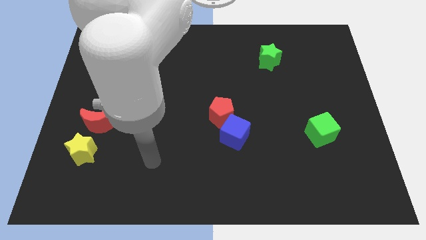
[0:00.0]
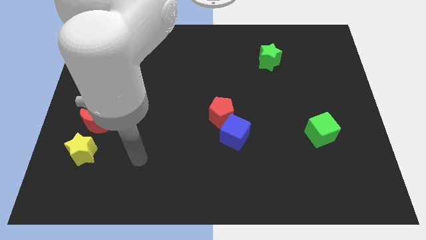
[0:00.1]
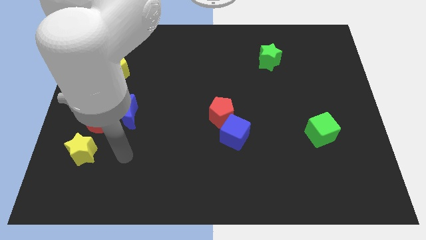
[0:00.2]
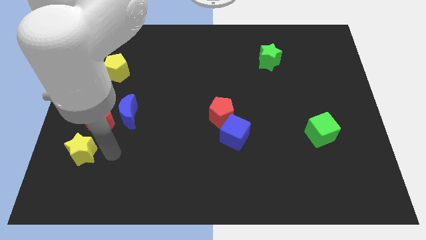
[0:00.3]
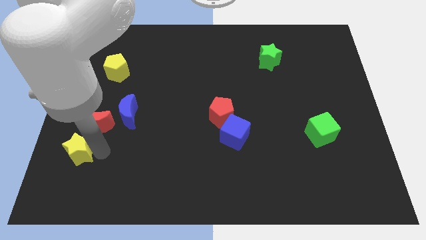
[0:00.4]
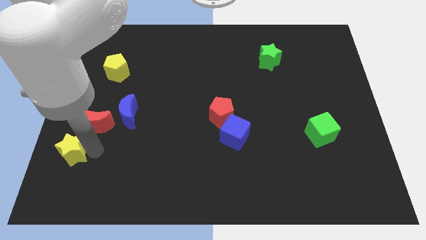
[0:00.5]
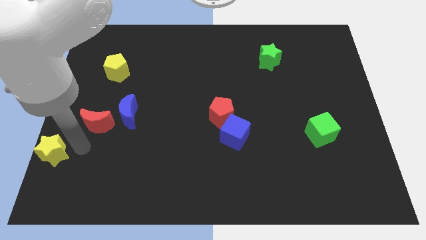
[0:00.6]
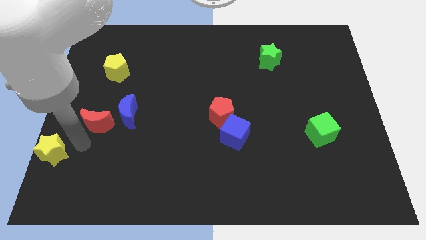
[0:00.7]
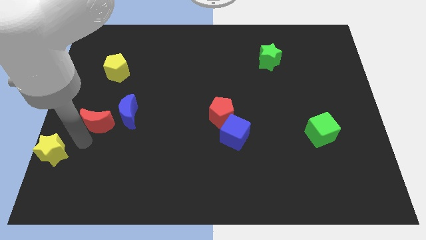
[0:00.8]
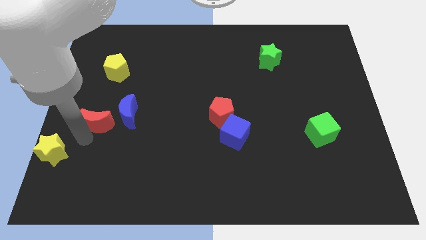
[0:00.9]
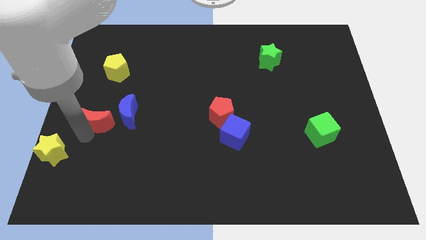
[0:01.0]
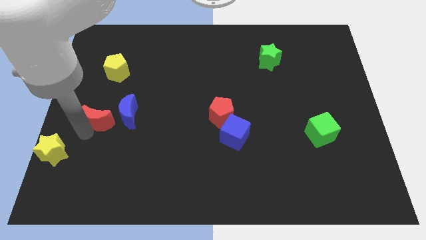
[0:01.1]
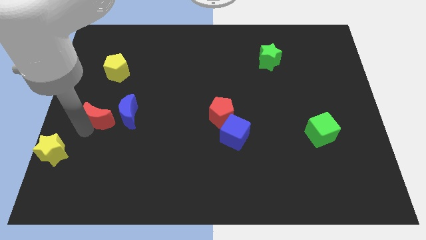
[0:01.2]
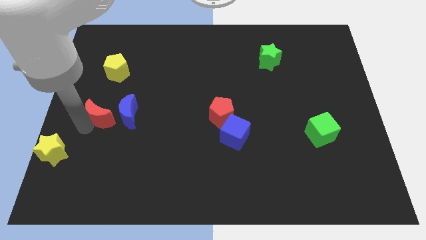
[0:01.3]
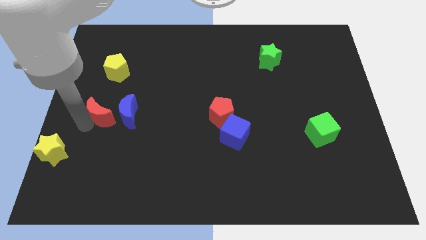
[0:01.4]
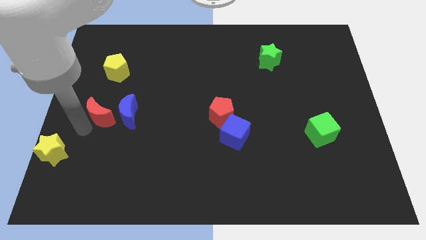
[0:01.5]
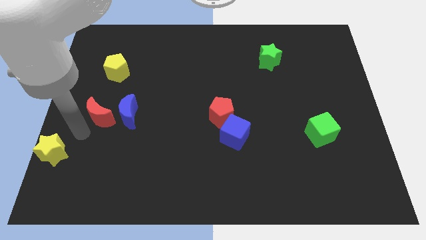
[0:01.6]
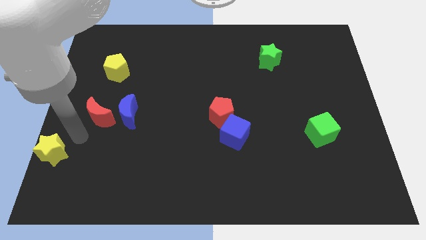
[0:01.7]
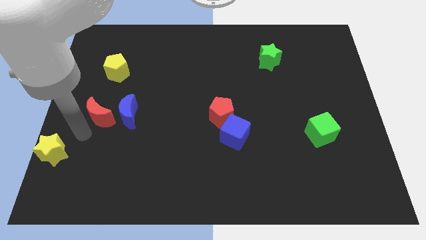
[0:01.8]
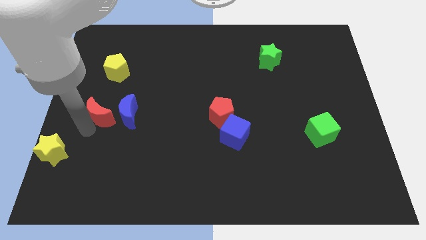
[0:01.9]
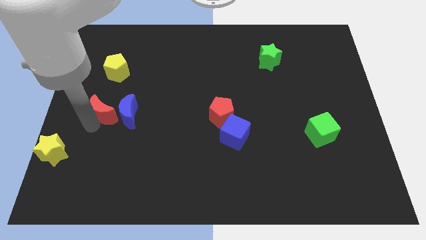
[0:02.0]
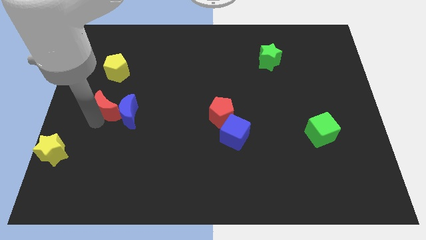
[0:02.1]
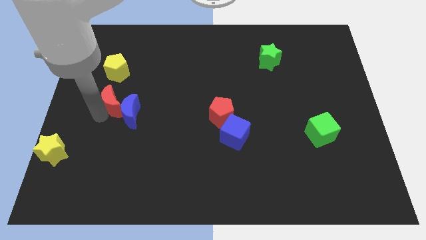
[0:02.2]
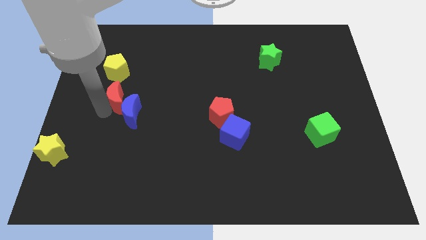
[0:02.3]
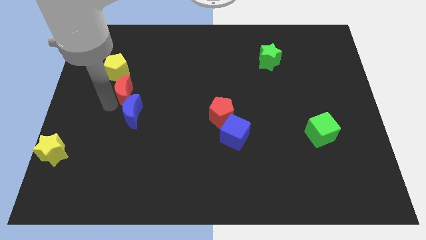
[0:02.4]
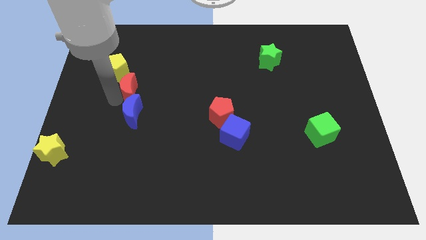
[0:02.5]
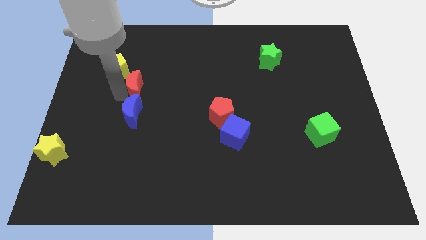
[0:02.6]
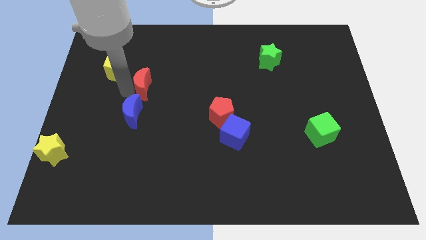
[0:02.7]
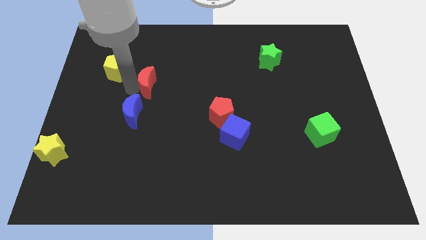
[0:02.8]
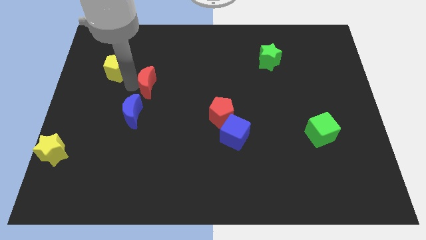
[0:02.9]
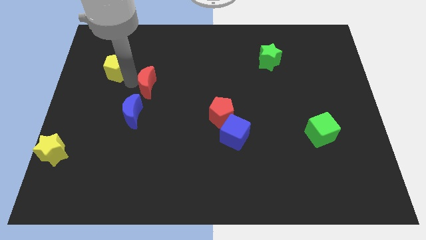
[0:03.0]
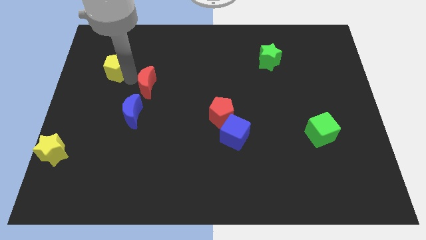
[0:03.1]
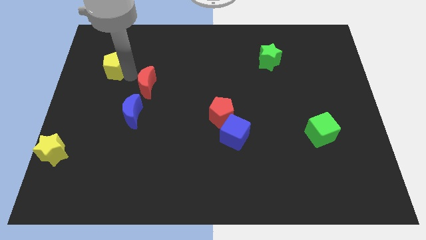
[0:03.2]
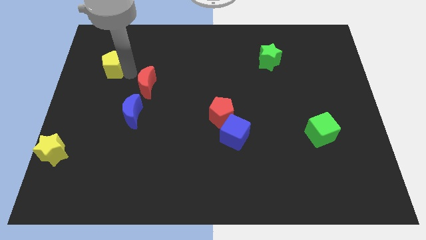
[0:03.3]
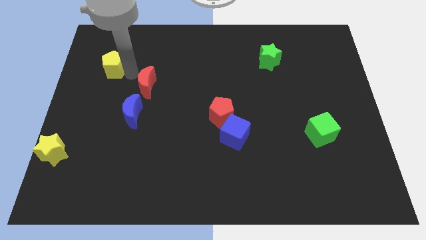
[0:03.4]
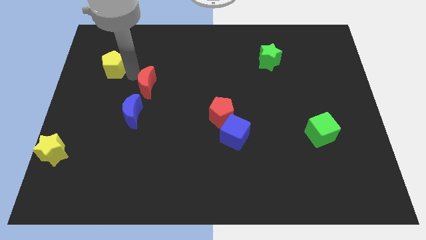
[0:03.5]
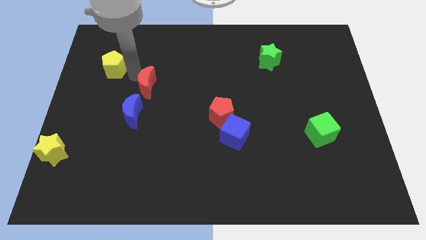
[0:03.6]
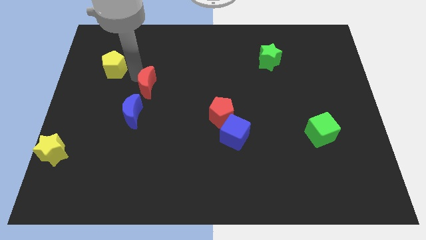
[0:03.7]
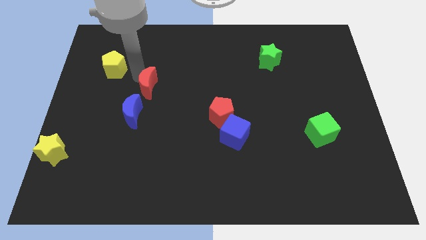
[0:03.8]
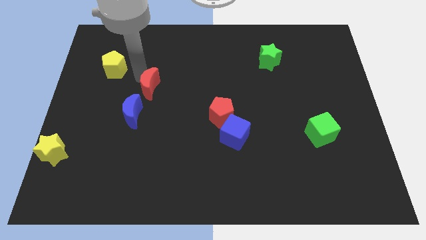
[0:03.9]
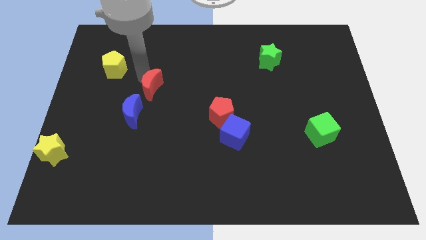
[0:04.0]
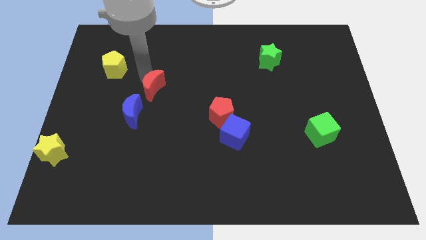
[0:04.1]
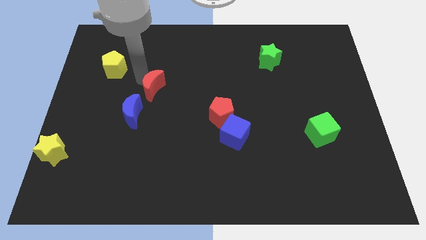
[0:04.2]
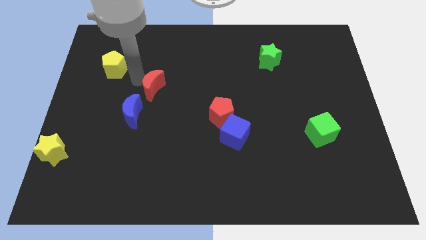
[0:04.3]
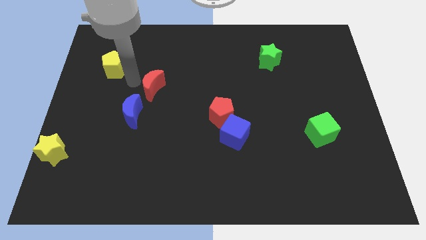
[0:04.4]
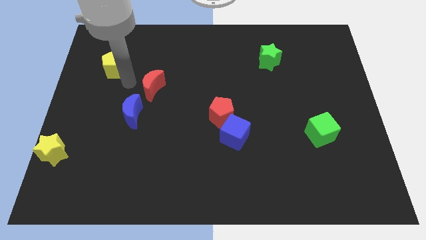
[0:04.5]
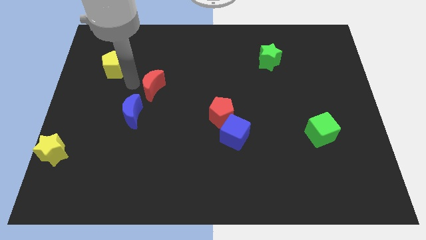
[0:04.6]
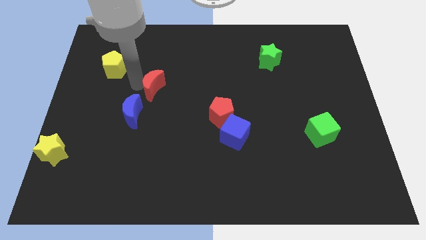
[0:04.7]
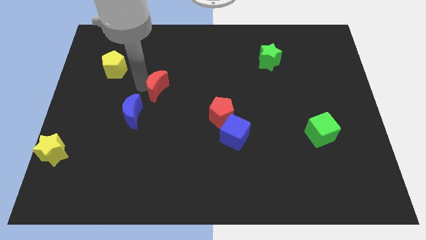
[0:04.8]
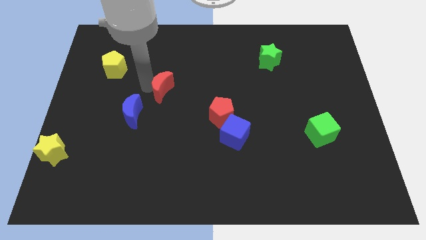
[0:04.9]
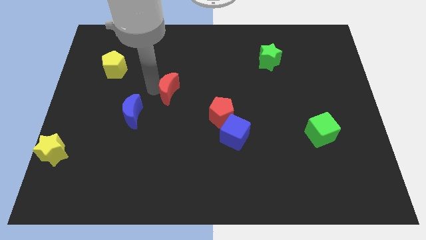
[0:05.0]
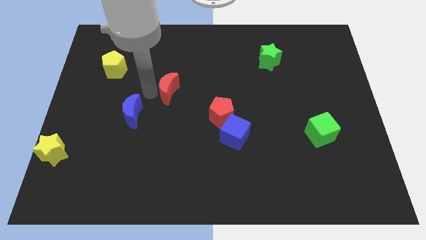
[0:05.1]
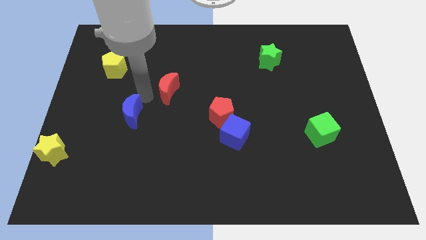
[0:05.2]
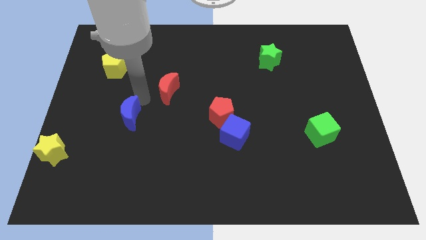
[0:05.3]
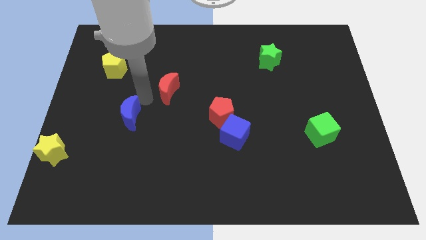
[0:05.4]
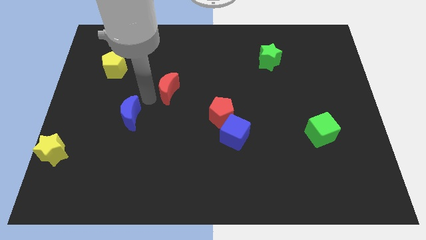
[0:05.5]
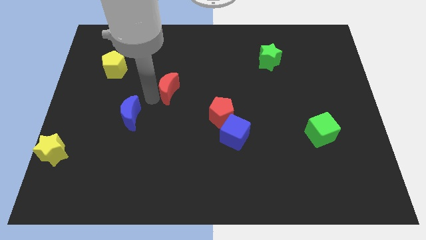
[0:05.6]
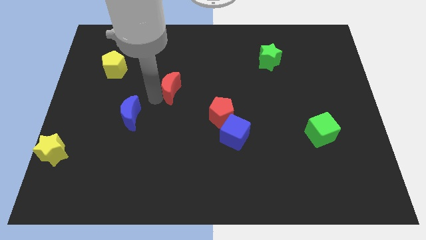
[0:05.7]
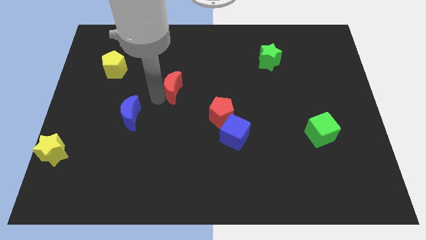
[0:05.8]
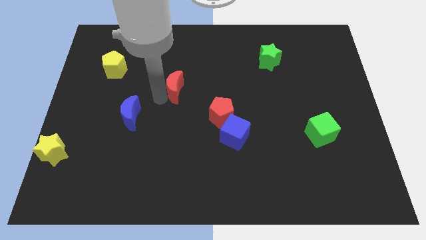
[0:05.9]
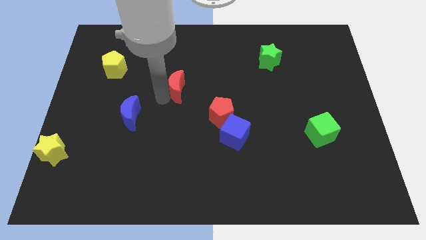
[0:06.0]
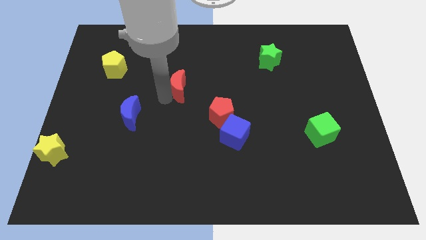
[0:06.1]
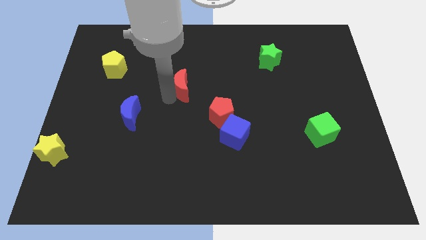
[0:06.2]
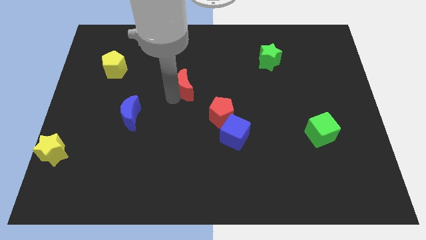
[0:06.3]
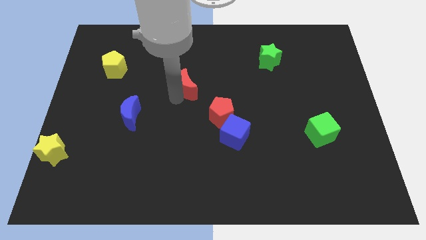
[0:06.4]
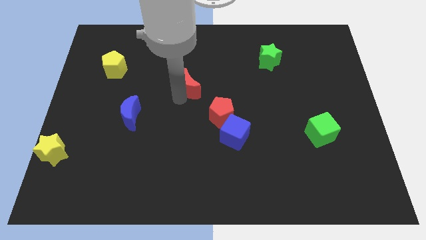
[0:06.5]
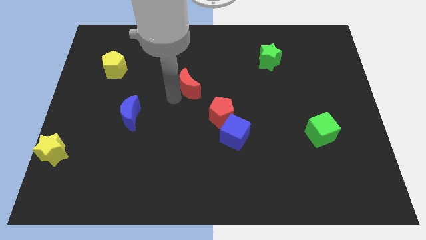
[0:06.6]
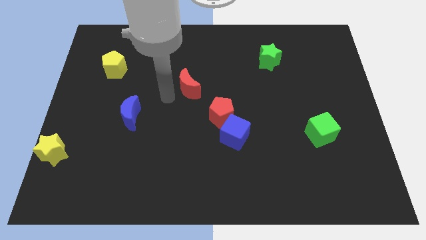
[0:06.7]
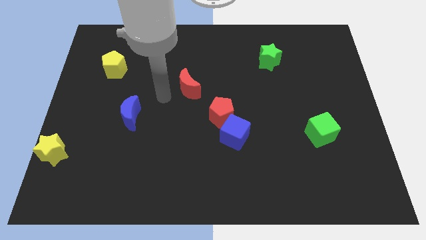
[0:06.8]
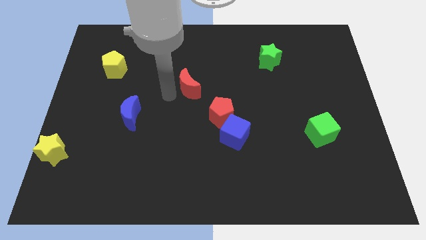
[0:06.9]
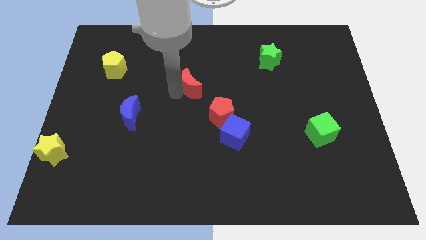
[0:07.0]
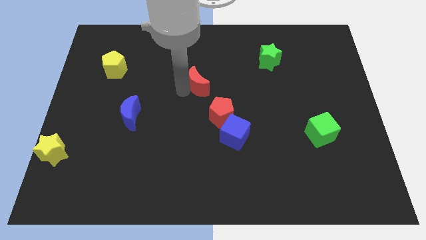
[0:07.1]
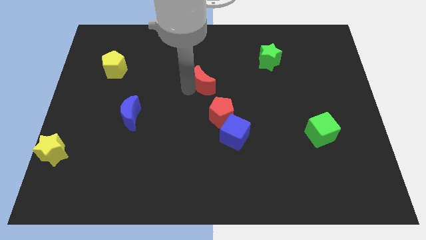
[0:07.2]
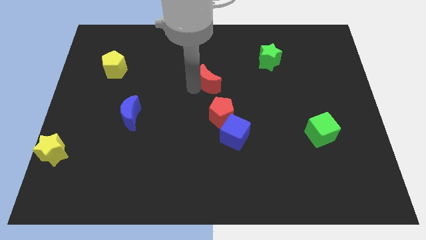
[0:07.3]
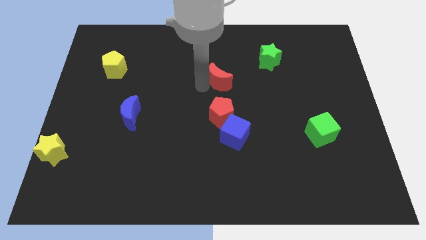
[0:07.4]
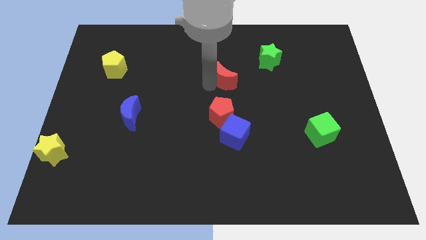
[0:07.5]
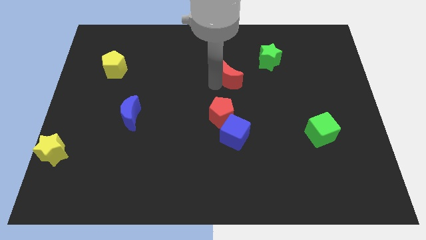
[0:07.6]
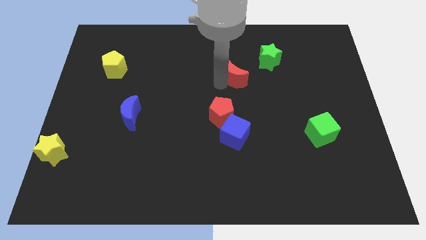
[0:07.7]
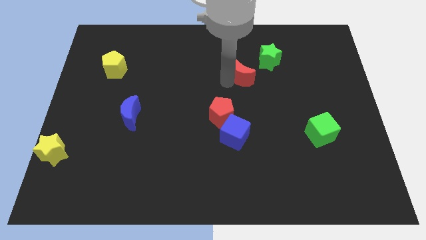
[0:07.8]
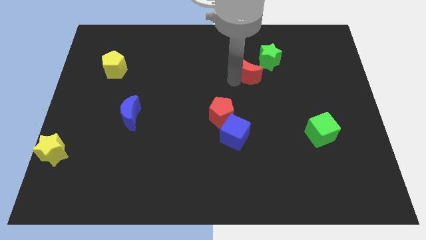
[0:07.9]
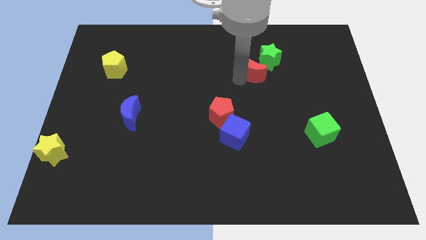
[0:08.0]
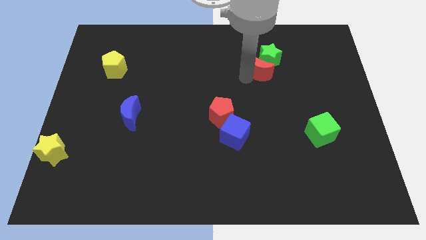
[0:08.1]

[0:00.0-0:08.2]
move the red moon to the green star
